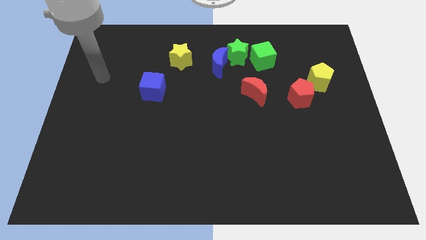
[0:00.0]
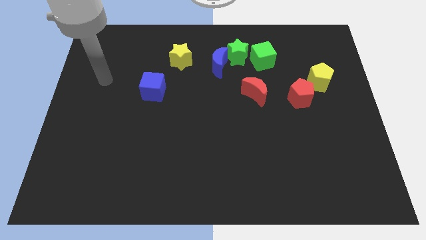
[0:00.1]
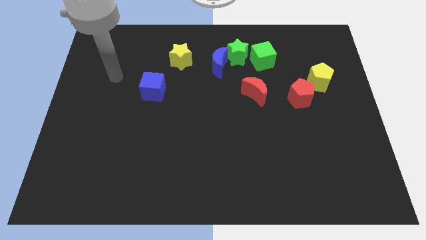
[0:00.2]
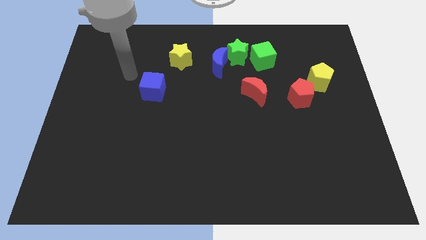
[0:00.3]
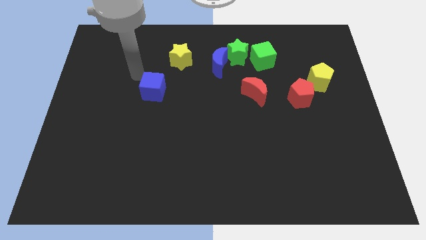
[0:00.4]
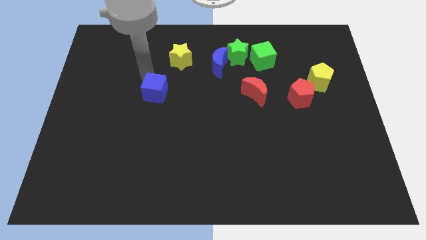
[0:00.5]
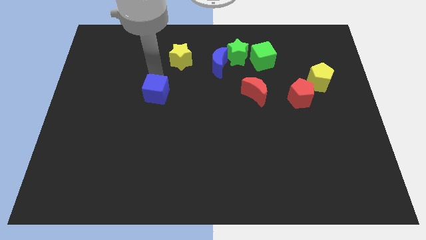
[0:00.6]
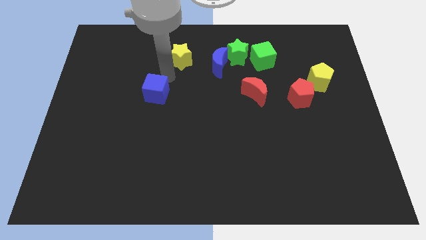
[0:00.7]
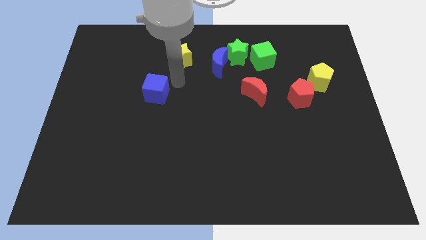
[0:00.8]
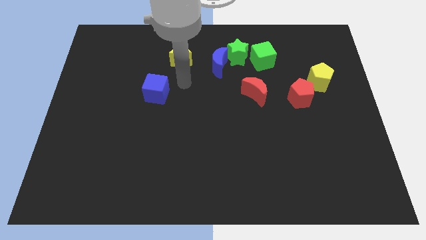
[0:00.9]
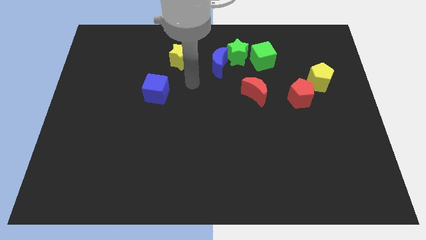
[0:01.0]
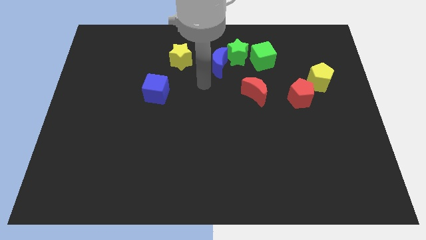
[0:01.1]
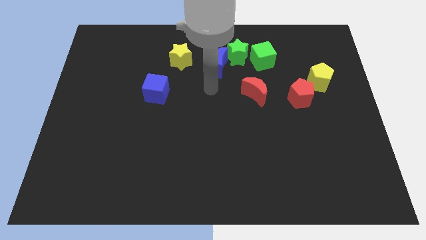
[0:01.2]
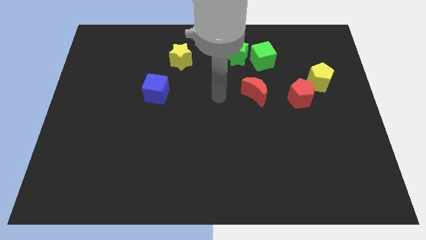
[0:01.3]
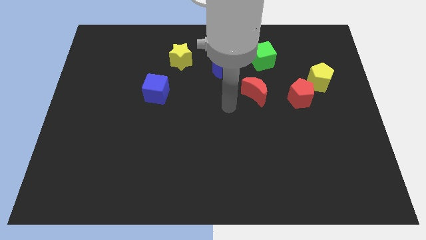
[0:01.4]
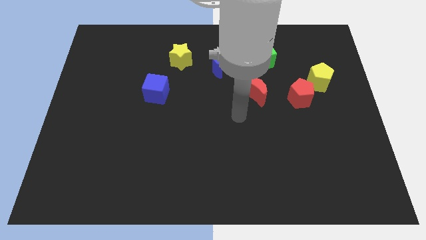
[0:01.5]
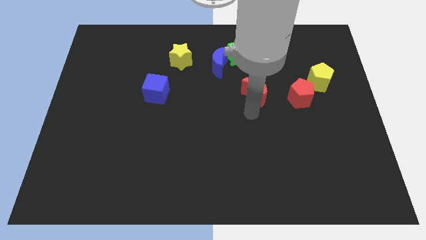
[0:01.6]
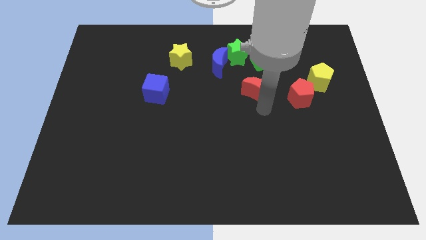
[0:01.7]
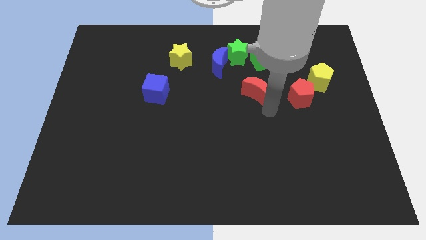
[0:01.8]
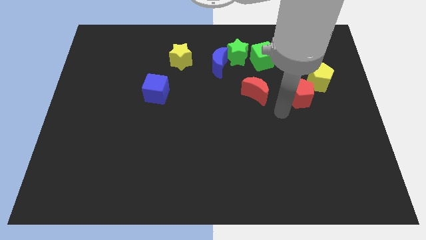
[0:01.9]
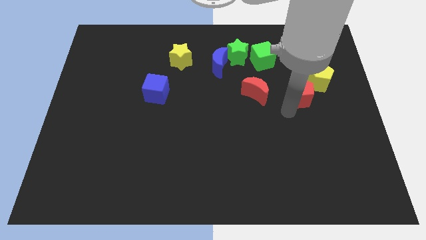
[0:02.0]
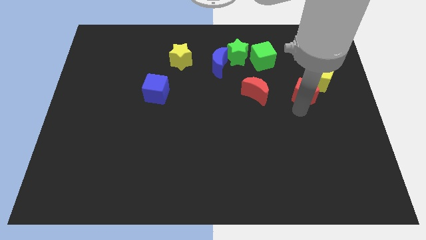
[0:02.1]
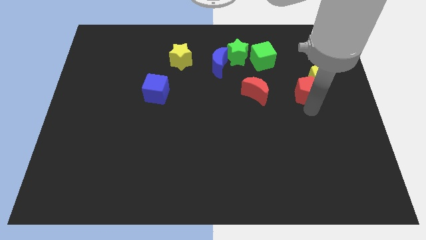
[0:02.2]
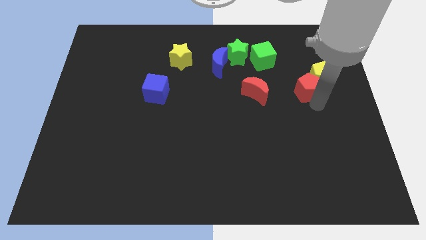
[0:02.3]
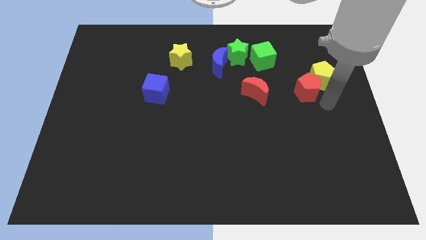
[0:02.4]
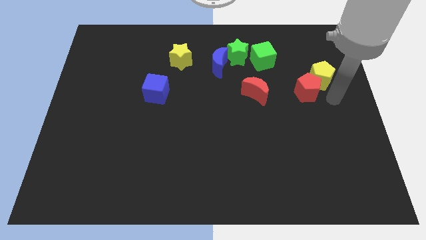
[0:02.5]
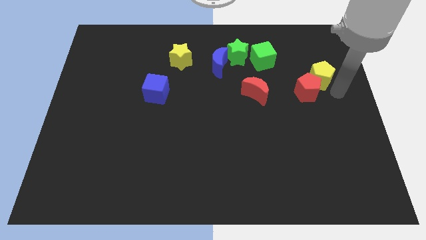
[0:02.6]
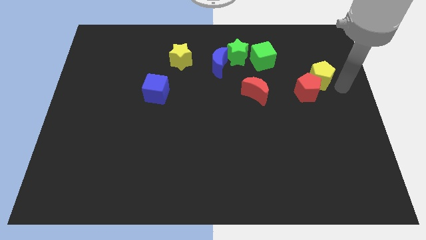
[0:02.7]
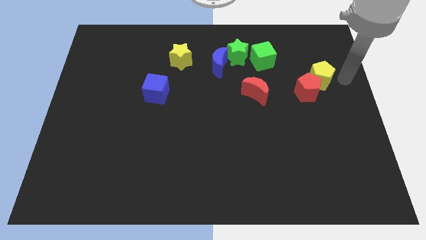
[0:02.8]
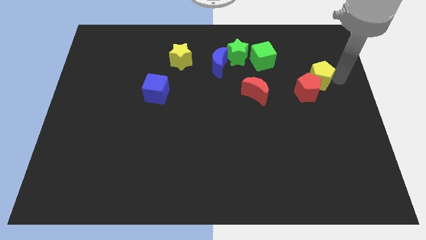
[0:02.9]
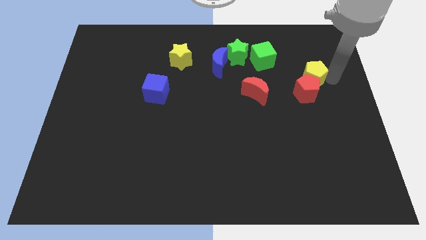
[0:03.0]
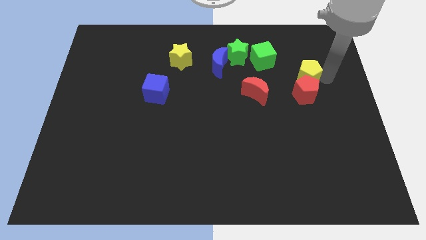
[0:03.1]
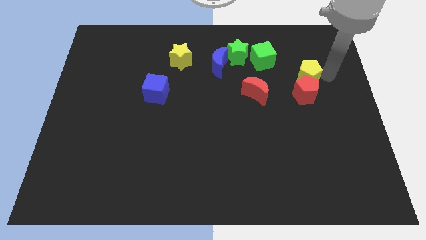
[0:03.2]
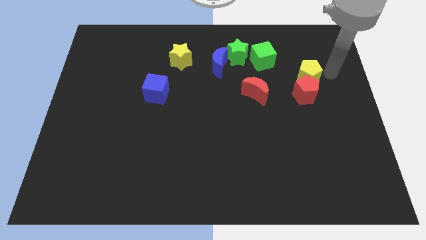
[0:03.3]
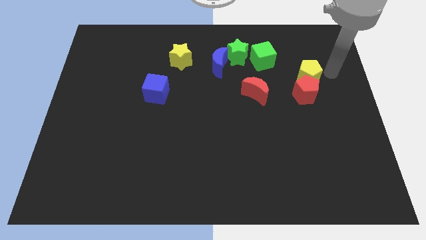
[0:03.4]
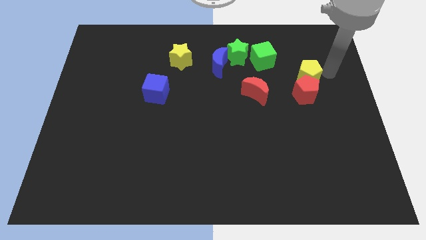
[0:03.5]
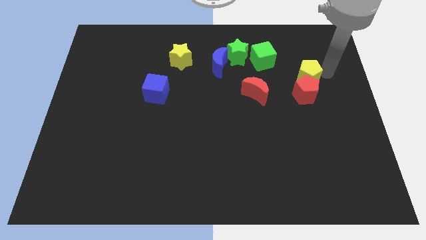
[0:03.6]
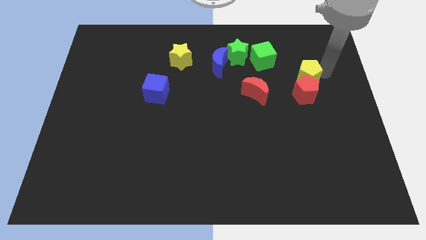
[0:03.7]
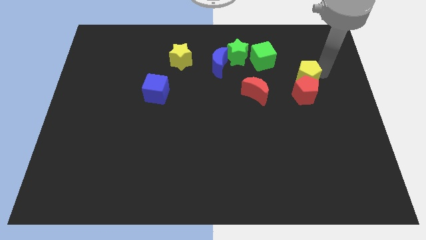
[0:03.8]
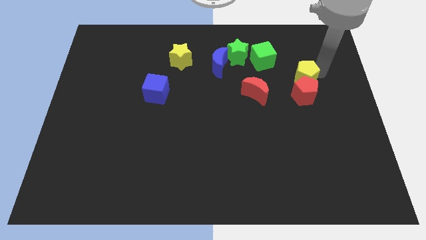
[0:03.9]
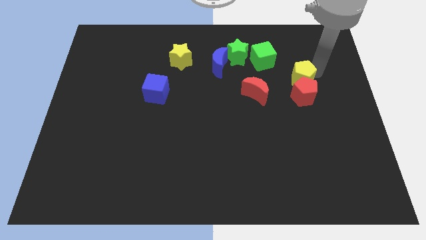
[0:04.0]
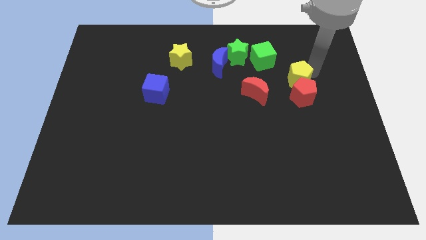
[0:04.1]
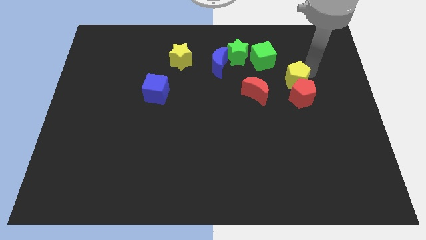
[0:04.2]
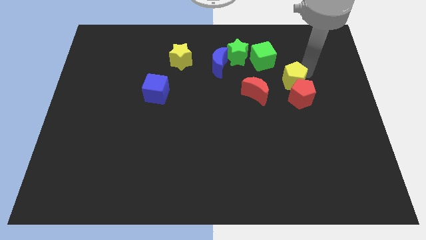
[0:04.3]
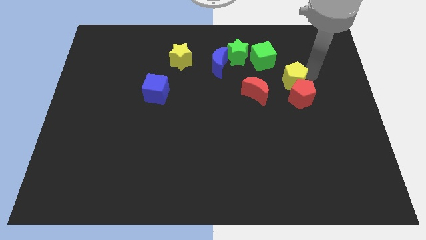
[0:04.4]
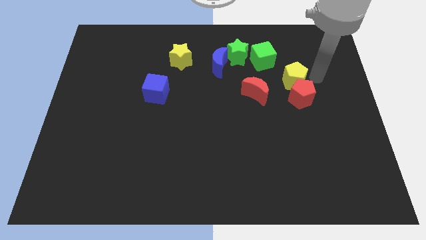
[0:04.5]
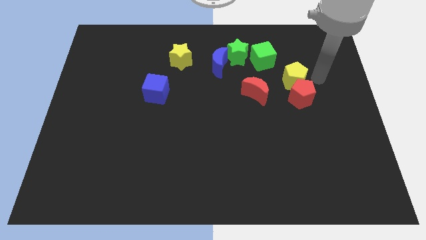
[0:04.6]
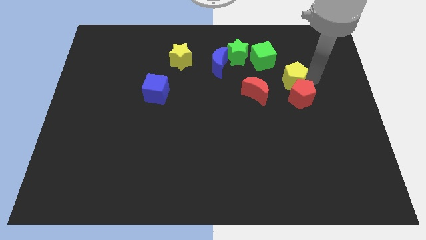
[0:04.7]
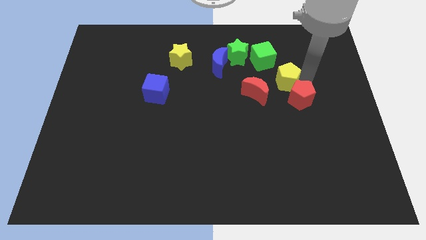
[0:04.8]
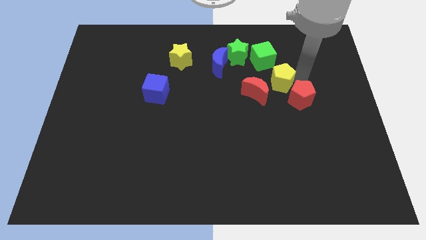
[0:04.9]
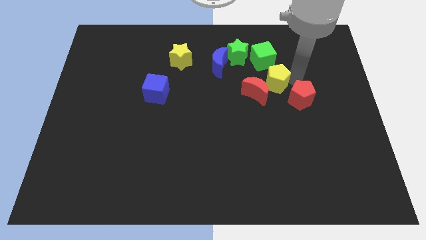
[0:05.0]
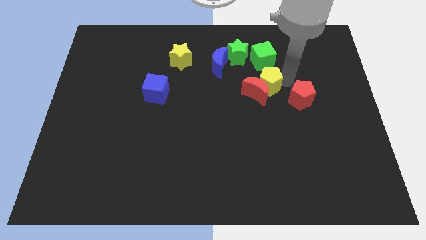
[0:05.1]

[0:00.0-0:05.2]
push the yellow pentagon just left of the red pentagon

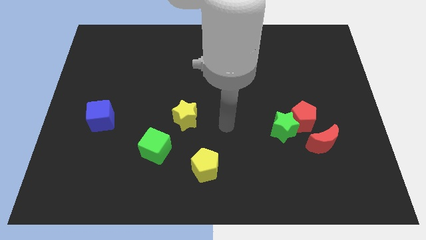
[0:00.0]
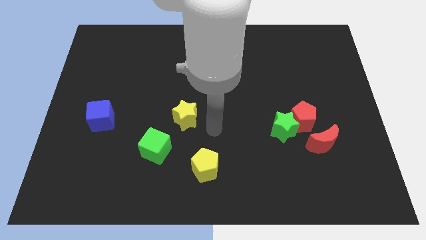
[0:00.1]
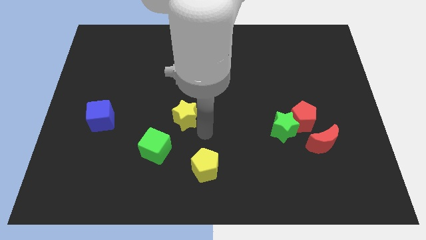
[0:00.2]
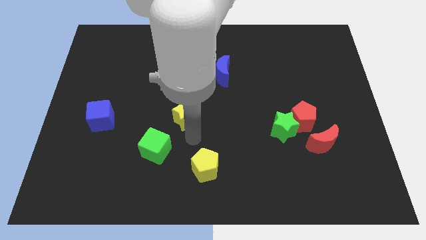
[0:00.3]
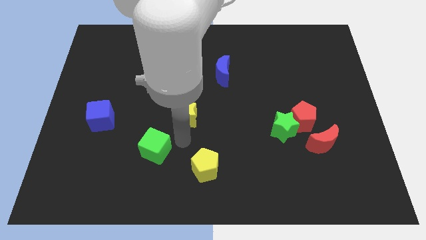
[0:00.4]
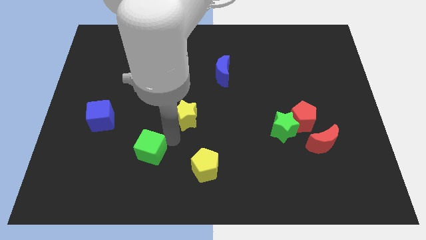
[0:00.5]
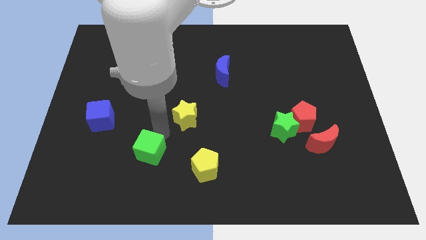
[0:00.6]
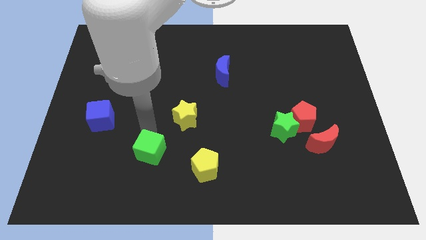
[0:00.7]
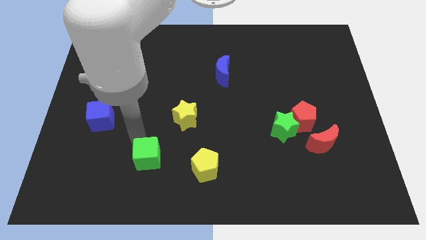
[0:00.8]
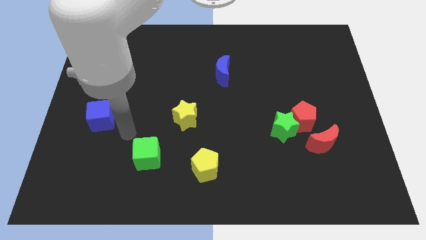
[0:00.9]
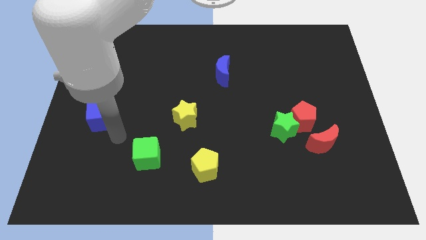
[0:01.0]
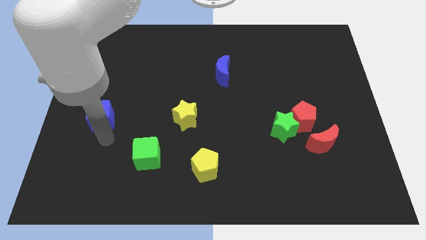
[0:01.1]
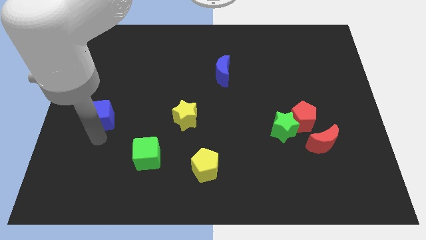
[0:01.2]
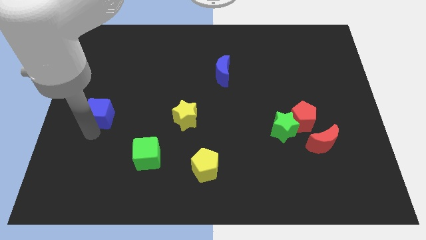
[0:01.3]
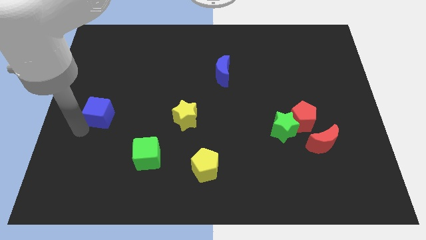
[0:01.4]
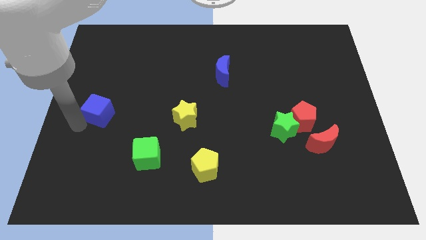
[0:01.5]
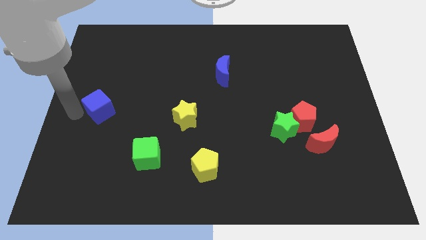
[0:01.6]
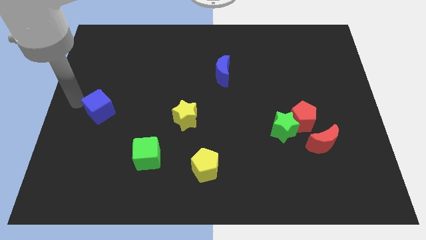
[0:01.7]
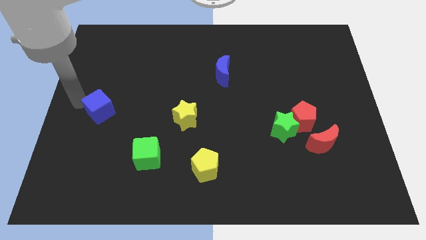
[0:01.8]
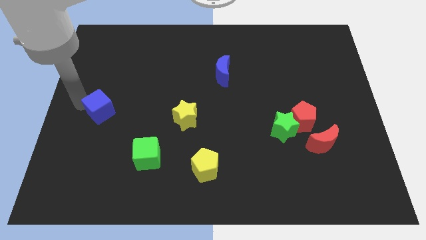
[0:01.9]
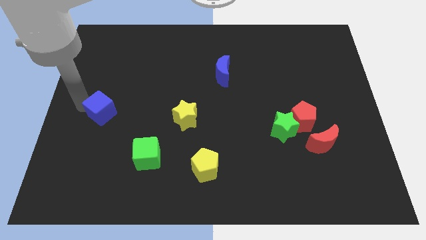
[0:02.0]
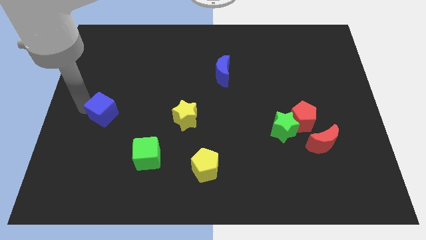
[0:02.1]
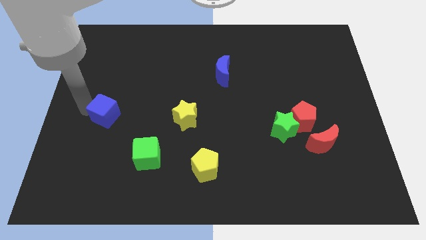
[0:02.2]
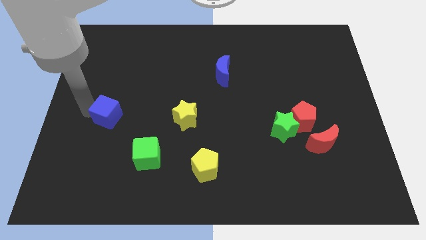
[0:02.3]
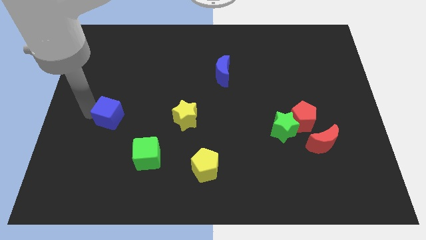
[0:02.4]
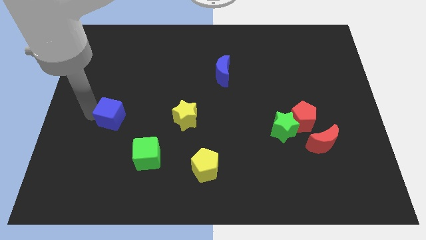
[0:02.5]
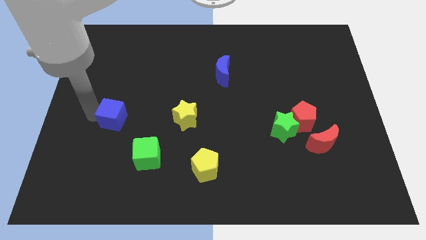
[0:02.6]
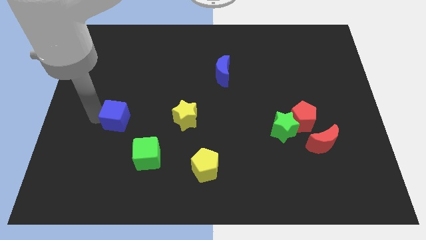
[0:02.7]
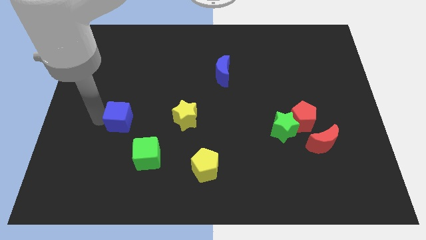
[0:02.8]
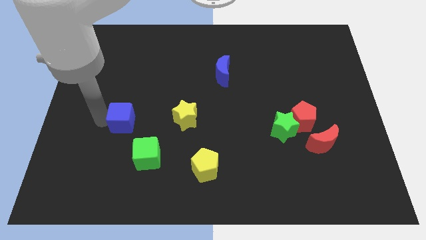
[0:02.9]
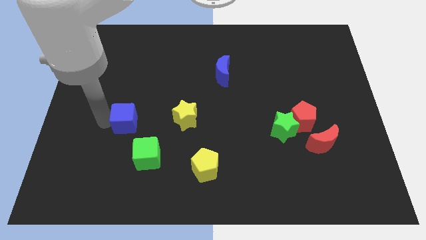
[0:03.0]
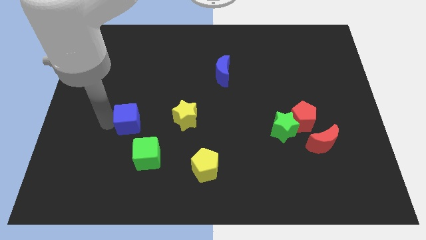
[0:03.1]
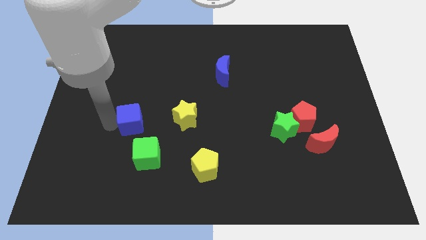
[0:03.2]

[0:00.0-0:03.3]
slide the blue cube to the top of the green cube
